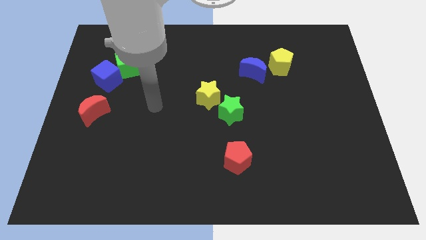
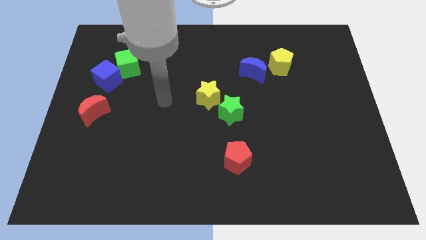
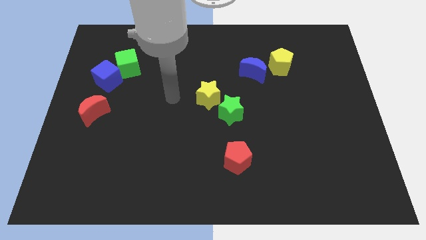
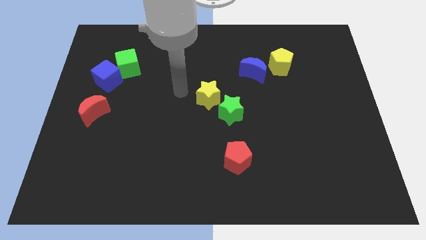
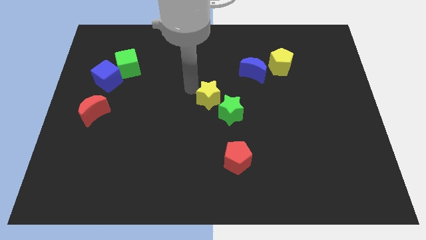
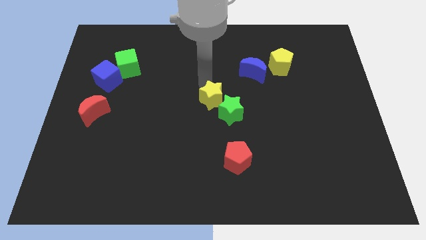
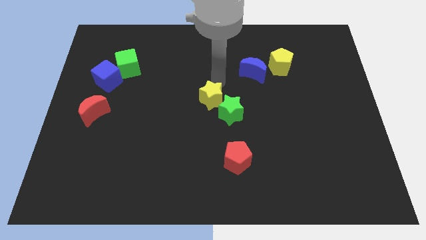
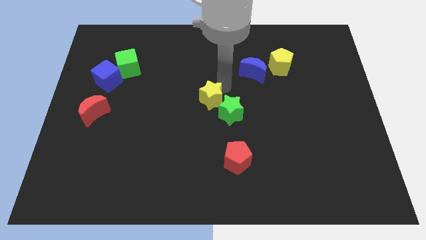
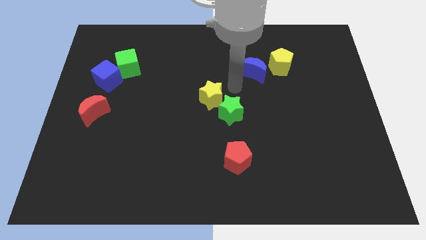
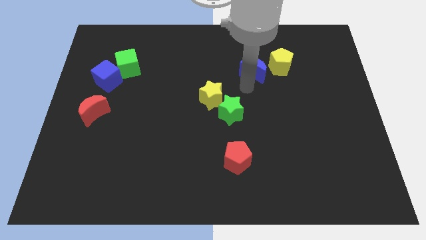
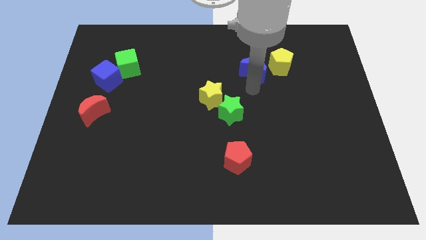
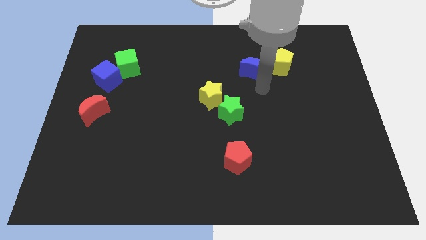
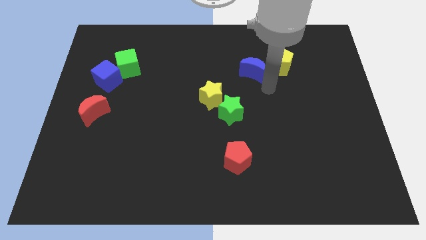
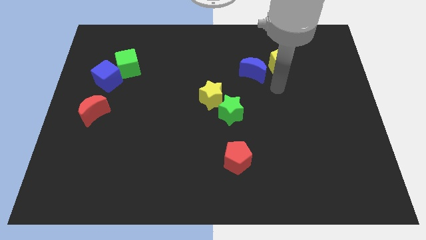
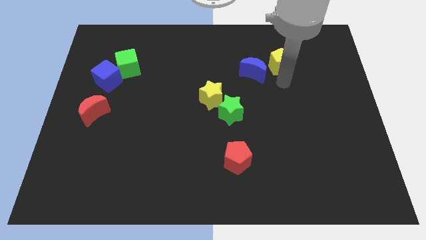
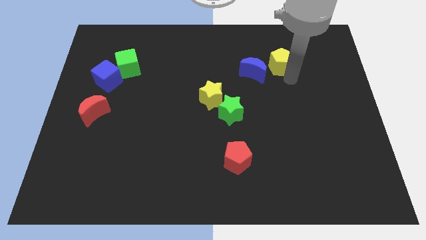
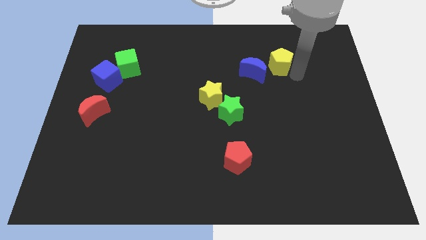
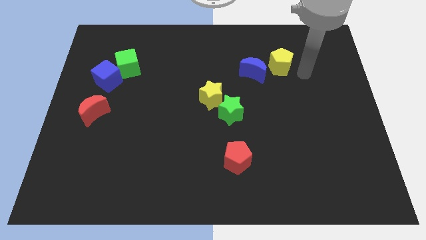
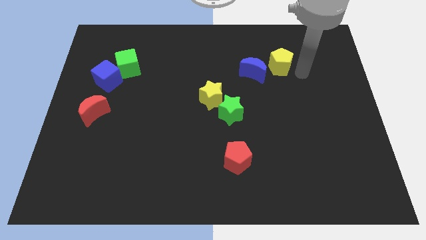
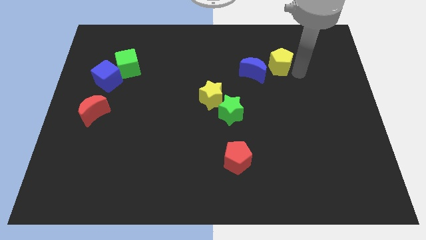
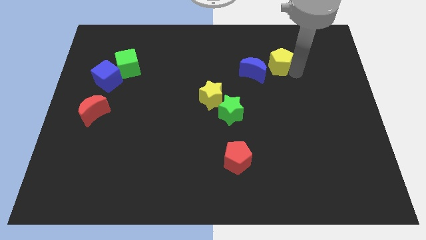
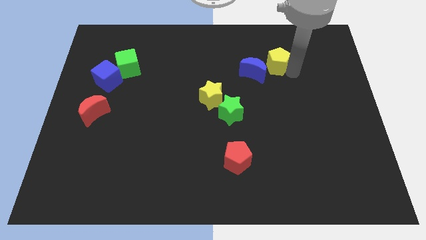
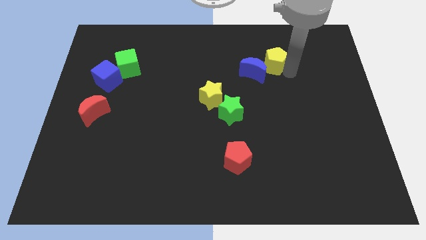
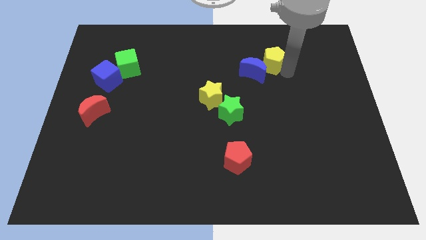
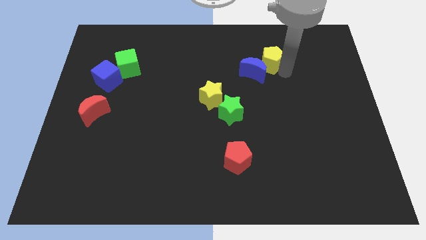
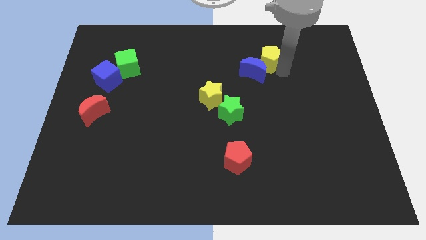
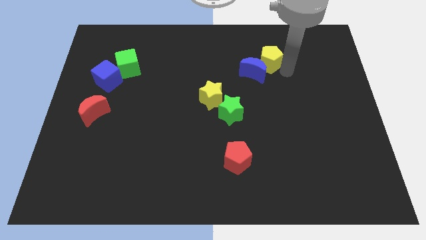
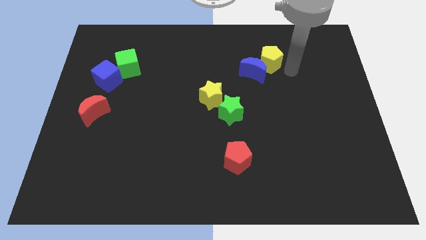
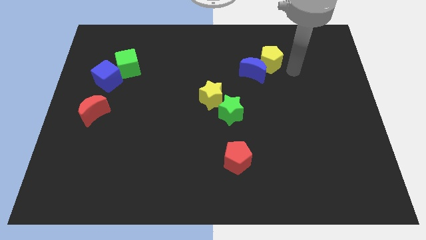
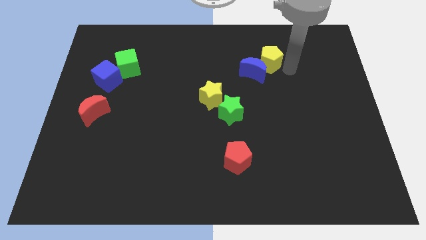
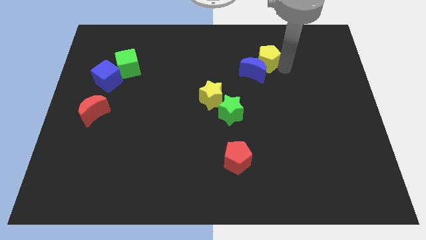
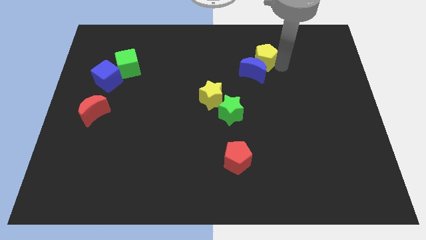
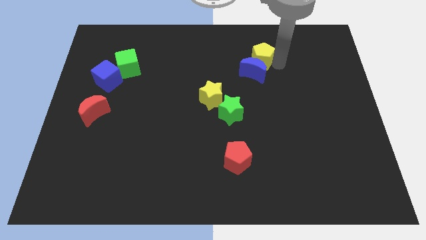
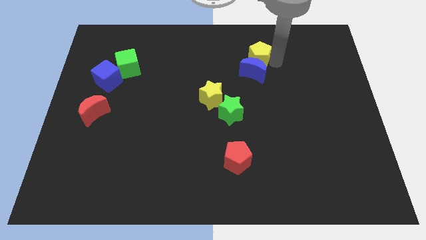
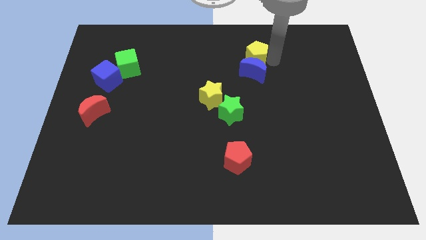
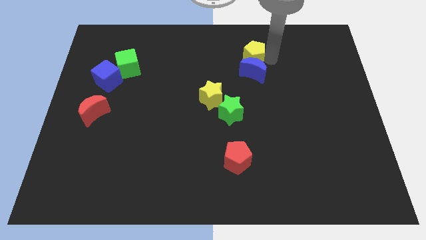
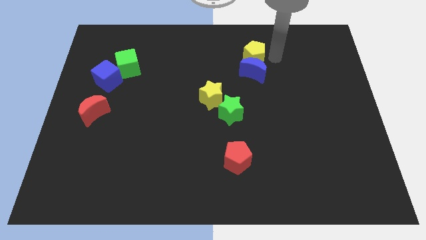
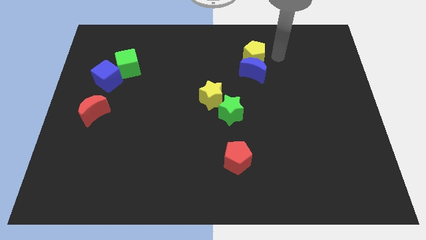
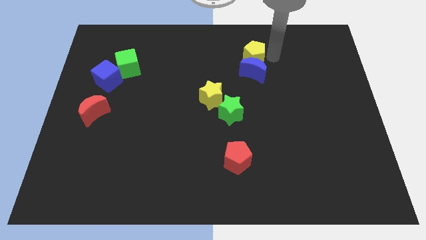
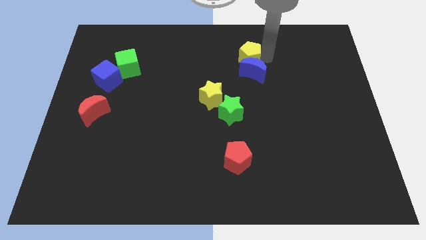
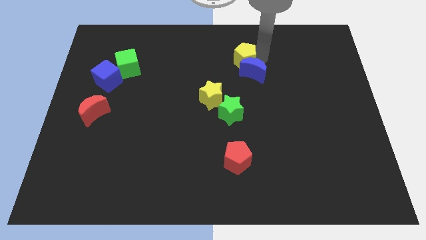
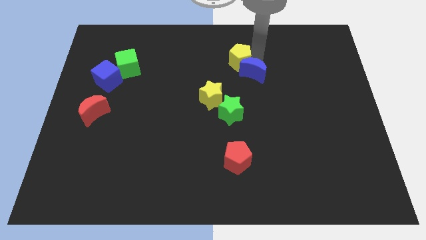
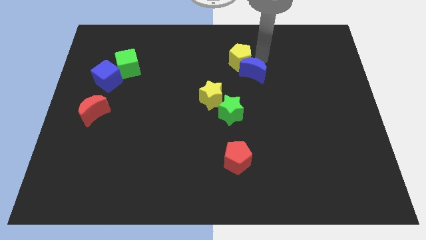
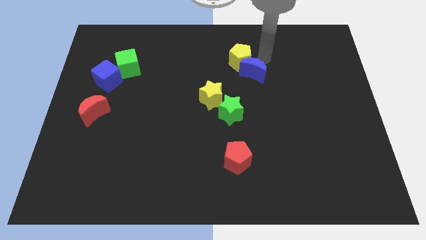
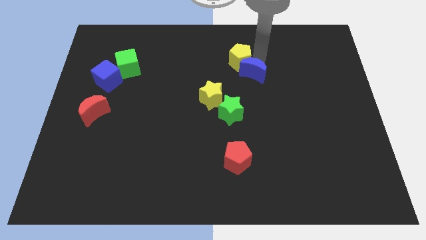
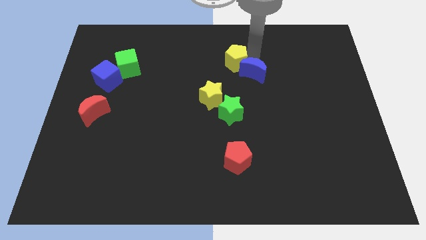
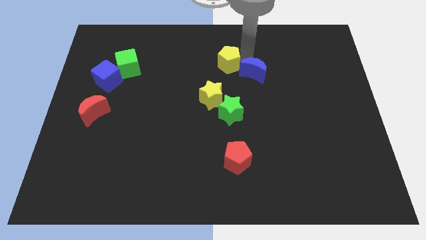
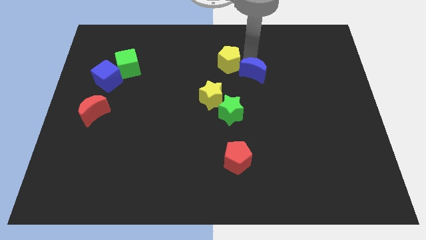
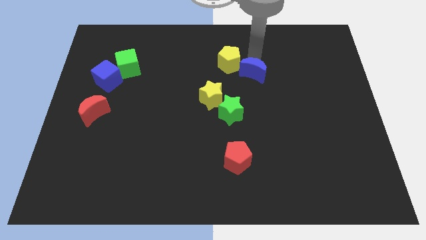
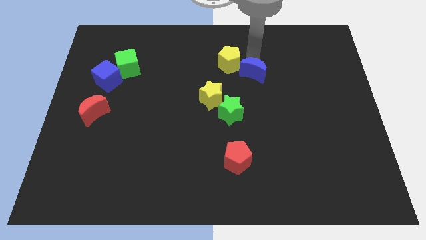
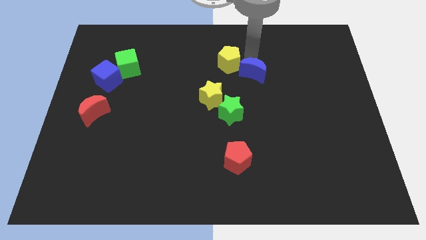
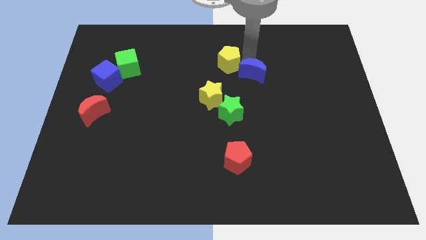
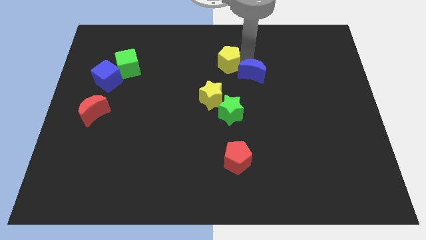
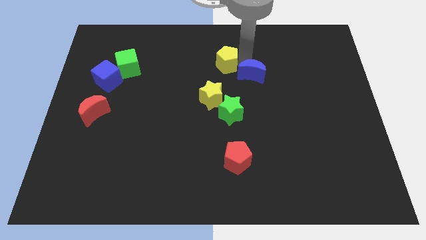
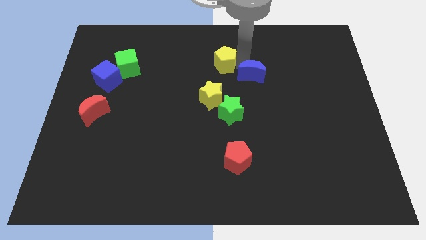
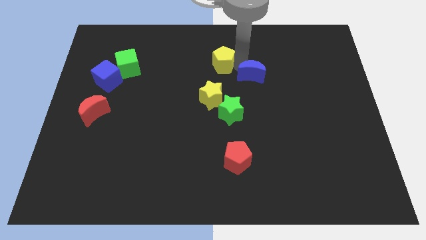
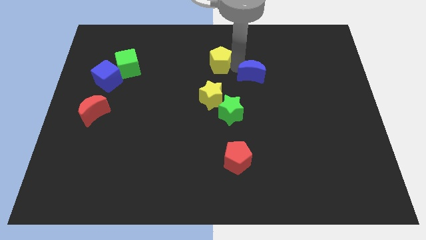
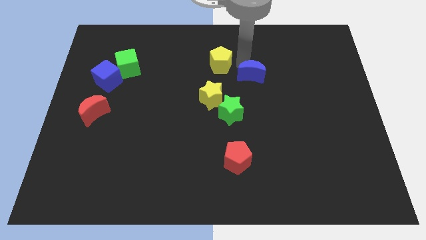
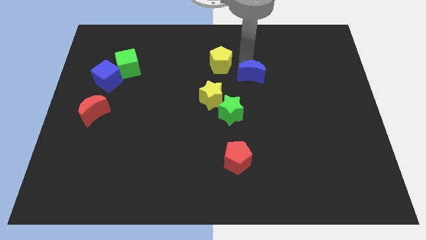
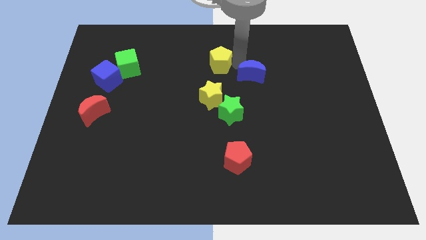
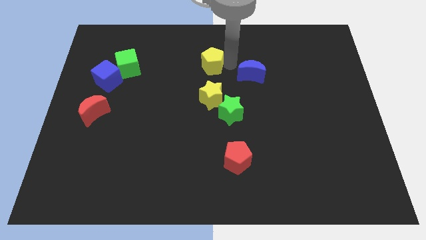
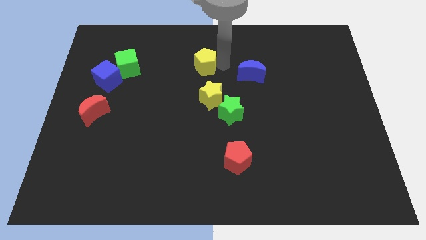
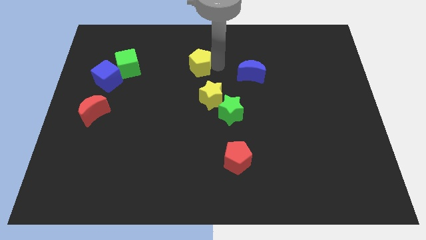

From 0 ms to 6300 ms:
push the yellow pentagon to the left

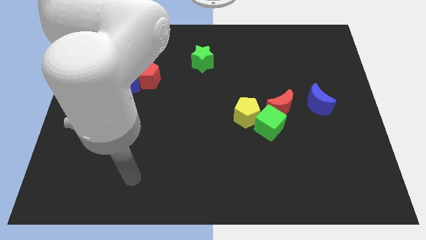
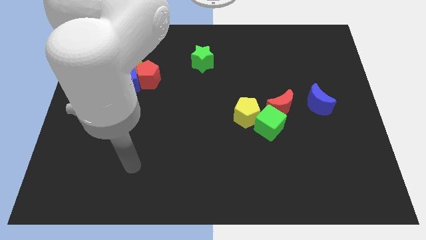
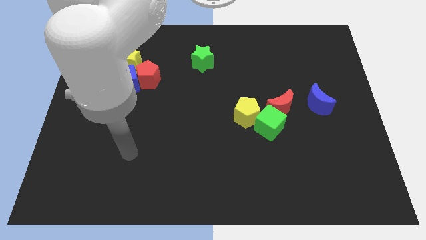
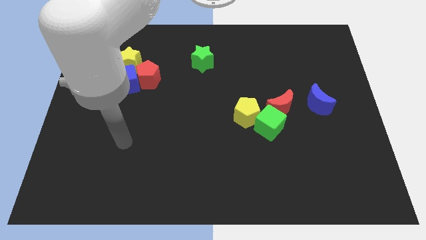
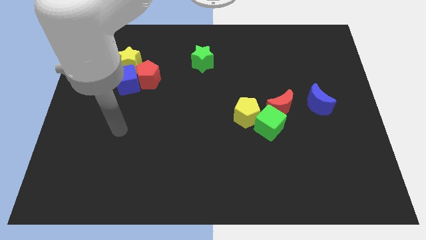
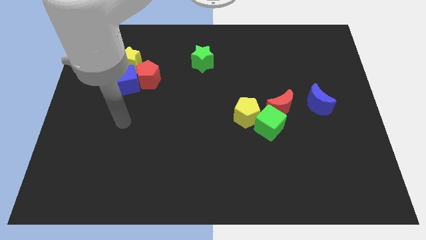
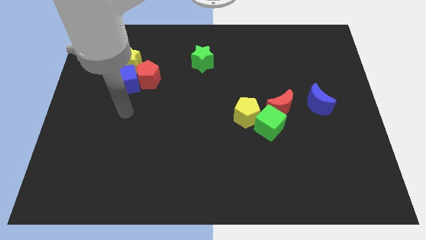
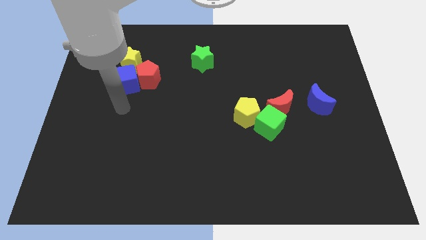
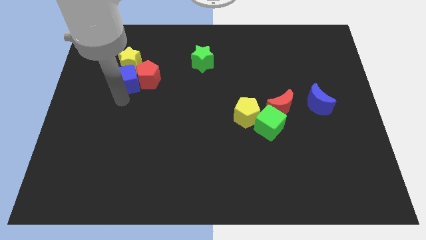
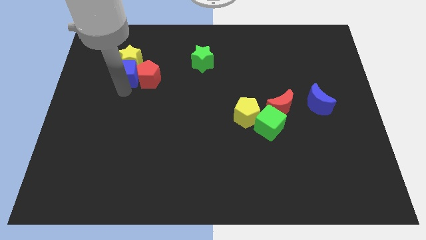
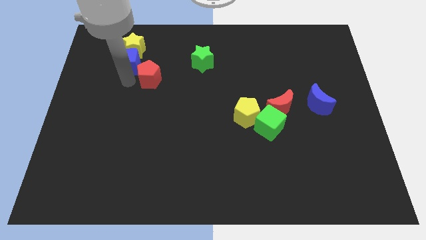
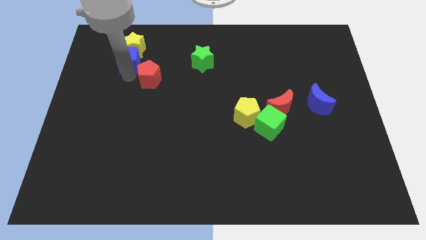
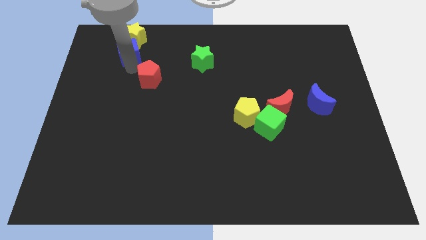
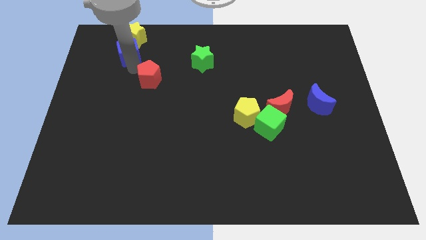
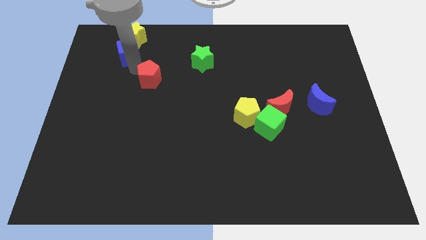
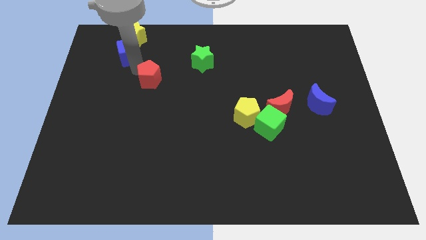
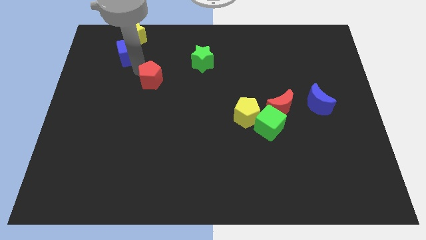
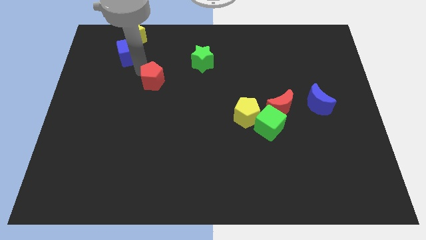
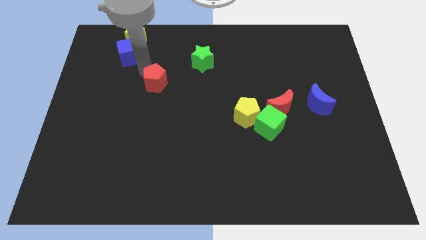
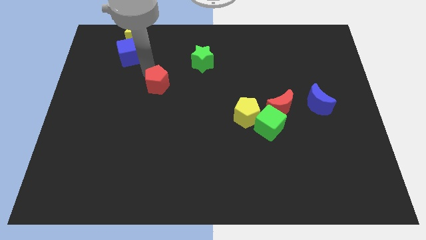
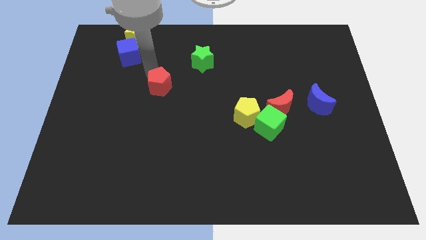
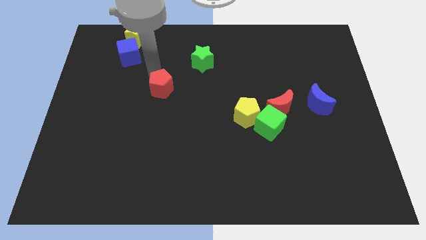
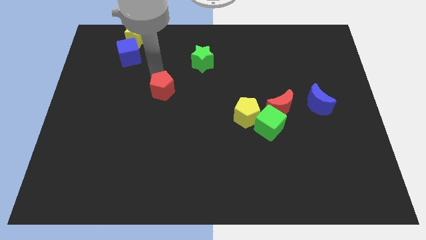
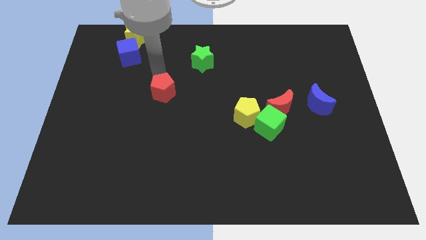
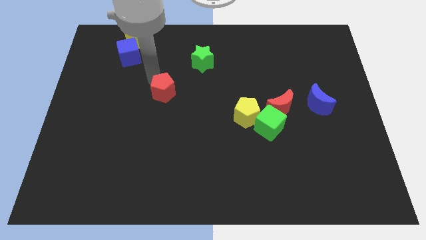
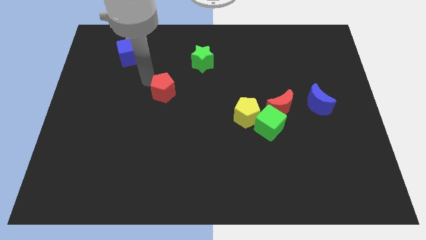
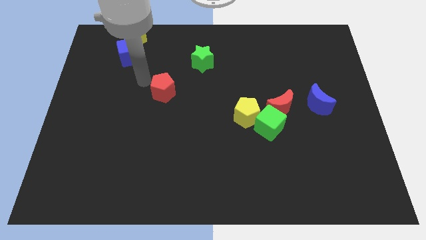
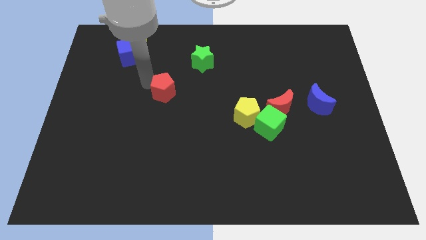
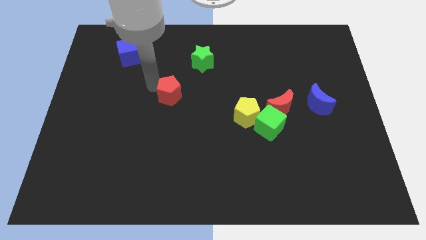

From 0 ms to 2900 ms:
move the red pentagon down and then right a little
